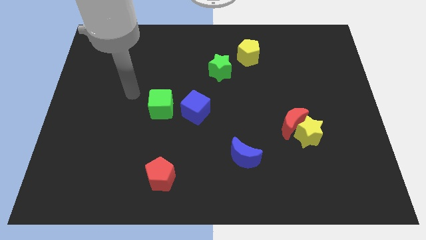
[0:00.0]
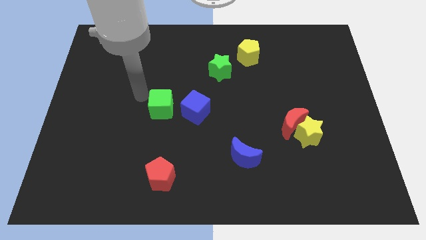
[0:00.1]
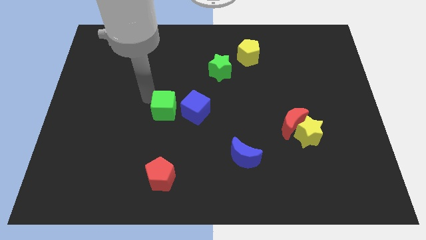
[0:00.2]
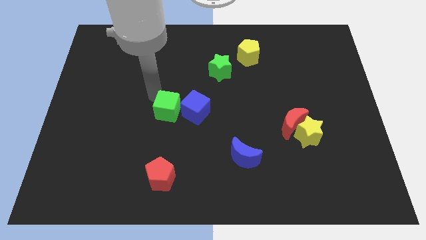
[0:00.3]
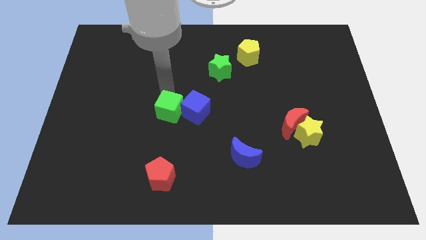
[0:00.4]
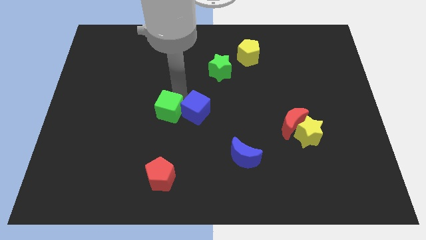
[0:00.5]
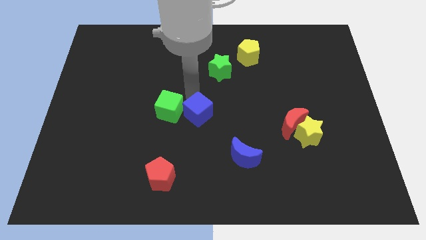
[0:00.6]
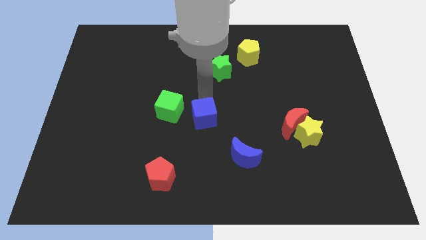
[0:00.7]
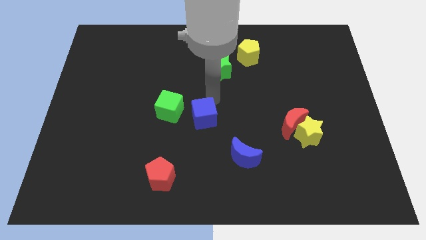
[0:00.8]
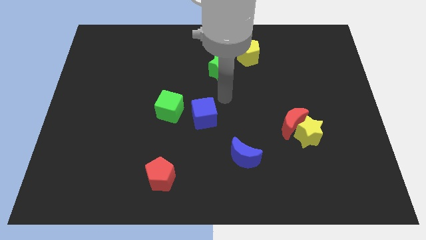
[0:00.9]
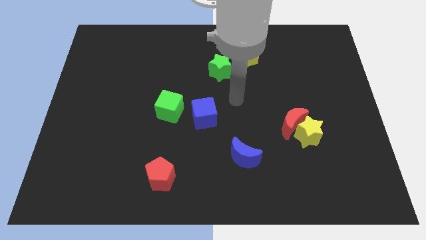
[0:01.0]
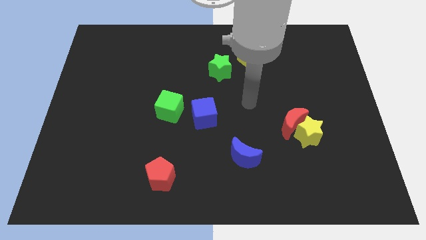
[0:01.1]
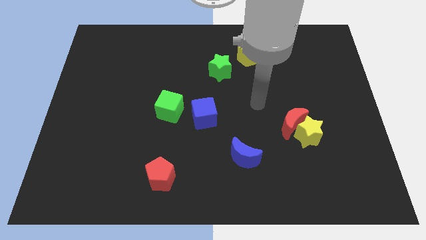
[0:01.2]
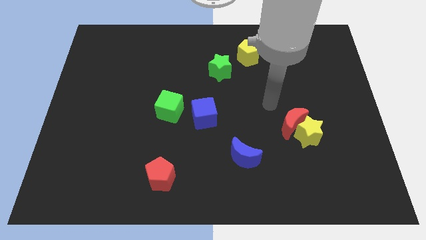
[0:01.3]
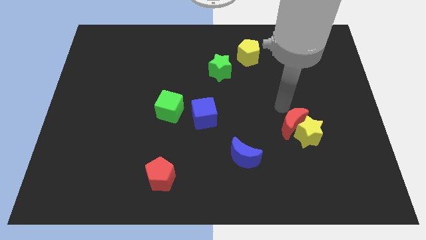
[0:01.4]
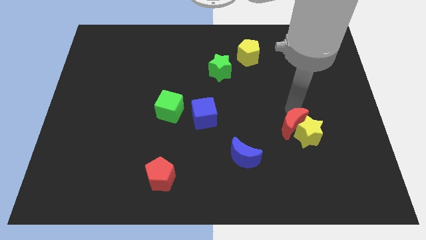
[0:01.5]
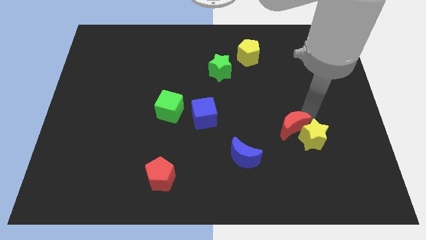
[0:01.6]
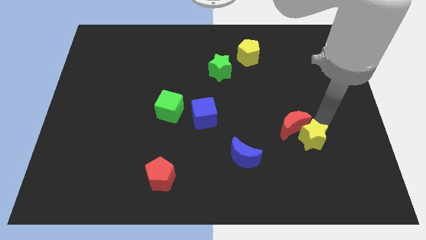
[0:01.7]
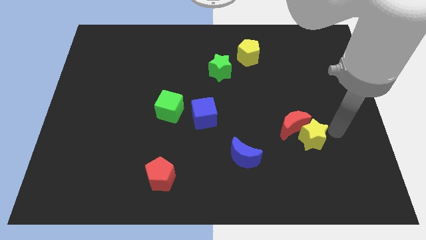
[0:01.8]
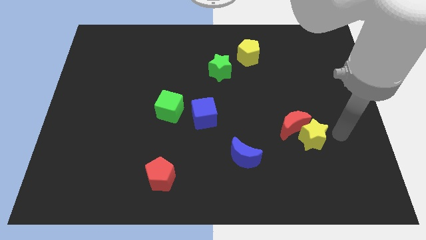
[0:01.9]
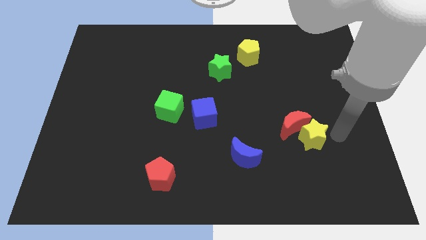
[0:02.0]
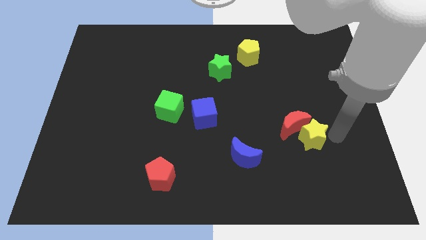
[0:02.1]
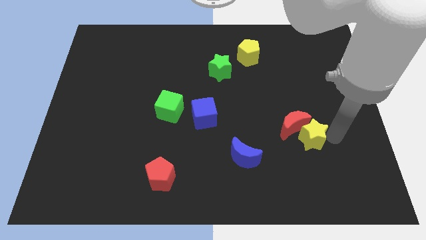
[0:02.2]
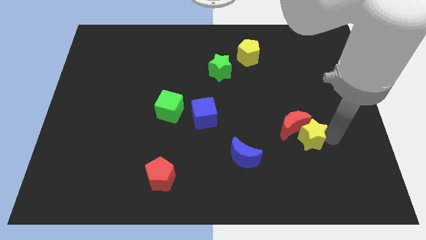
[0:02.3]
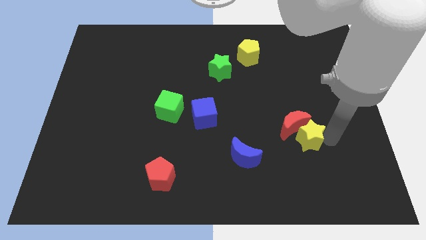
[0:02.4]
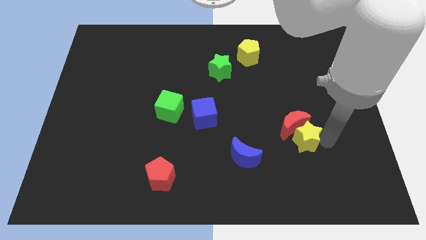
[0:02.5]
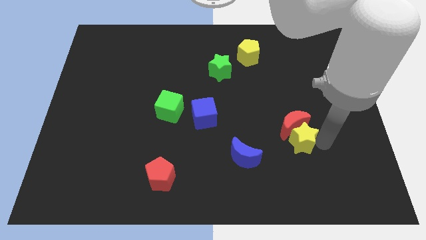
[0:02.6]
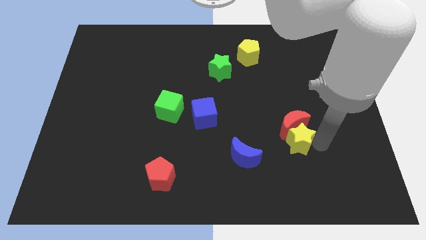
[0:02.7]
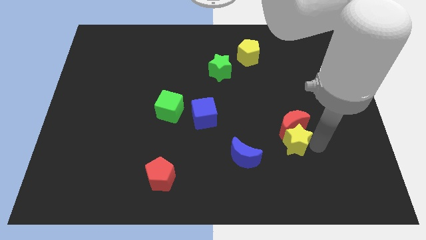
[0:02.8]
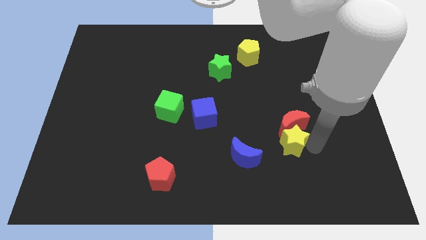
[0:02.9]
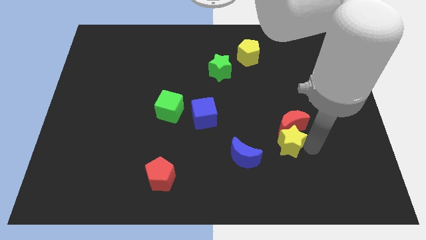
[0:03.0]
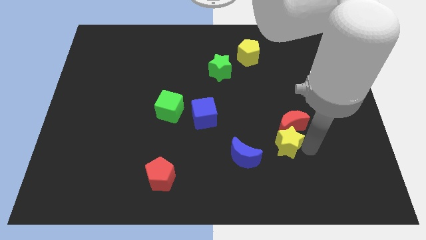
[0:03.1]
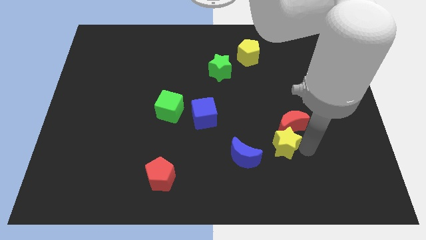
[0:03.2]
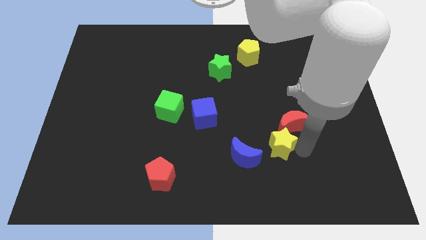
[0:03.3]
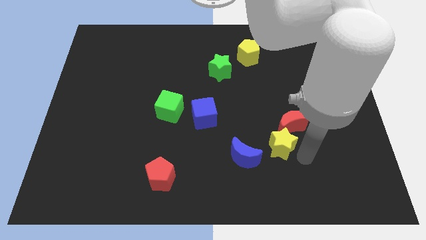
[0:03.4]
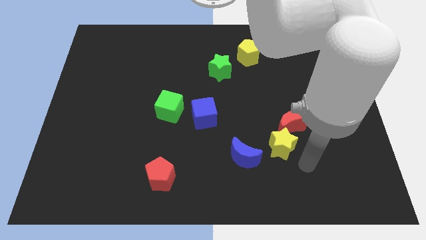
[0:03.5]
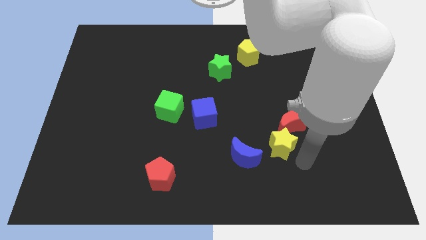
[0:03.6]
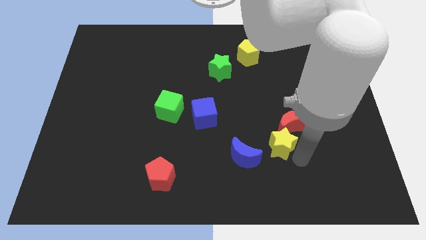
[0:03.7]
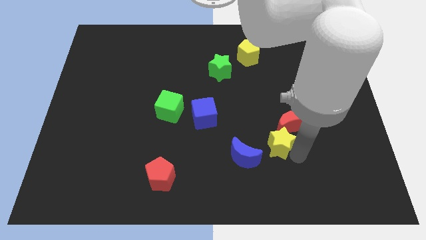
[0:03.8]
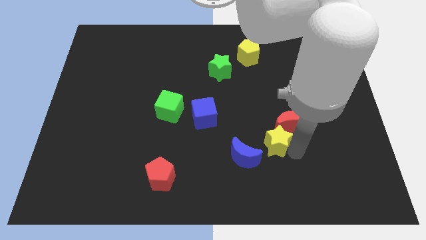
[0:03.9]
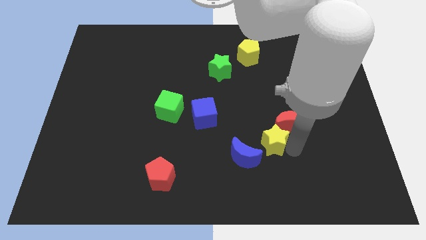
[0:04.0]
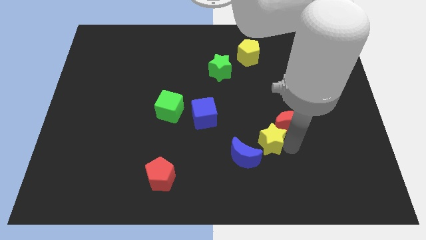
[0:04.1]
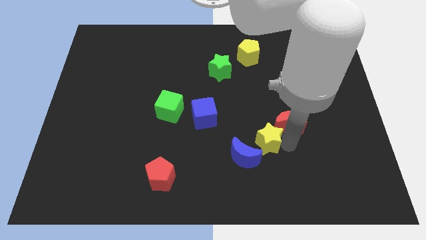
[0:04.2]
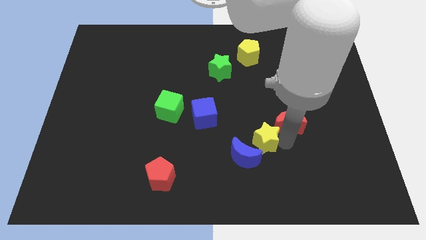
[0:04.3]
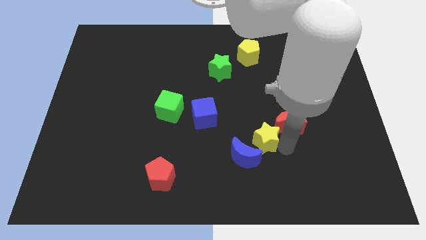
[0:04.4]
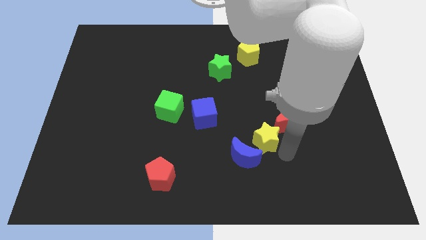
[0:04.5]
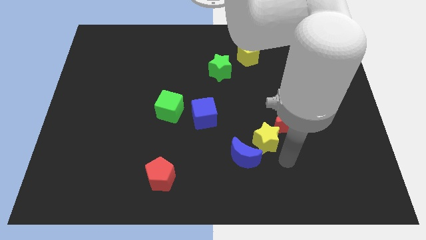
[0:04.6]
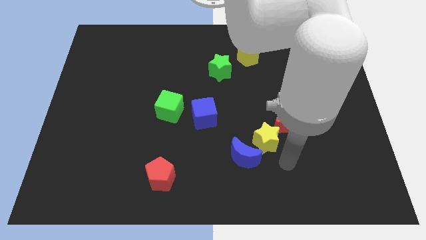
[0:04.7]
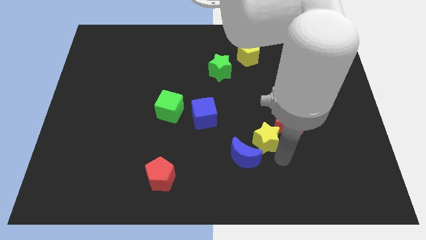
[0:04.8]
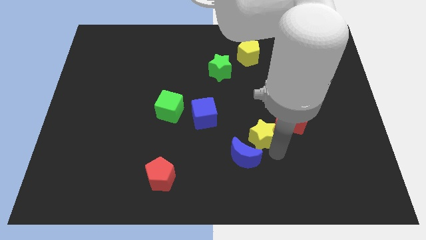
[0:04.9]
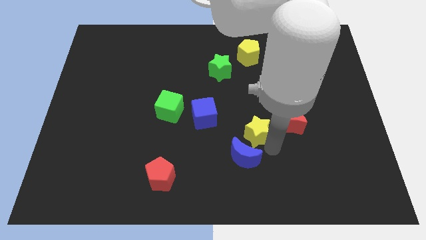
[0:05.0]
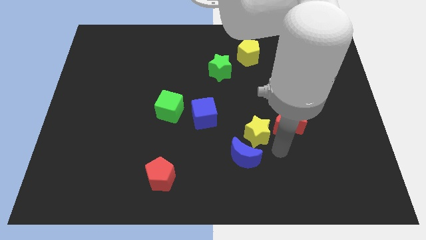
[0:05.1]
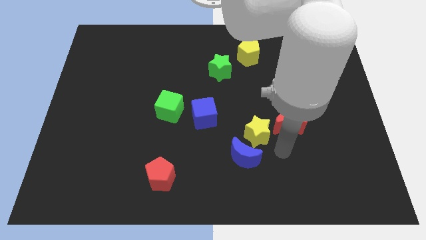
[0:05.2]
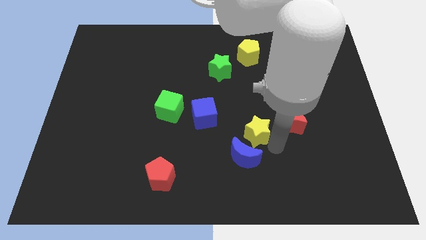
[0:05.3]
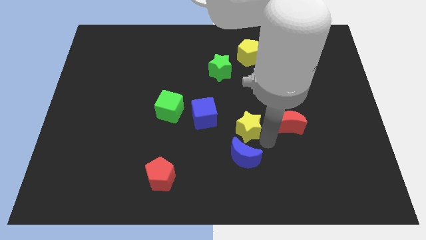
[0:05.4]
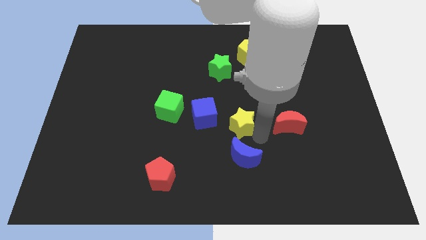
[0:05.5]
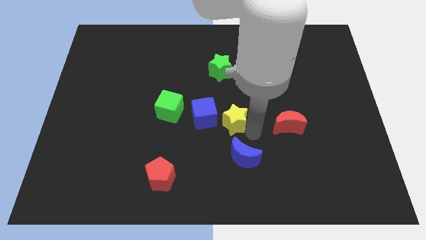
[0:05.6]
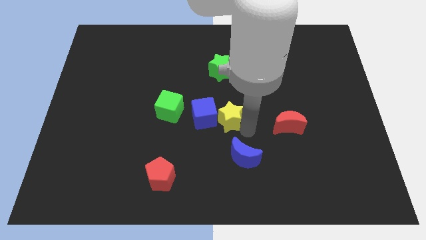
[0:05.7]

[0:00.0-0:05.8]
put the yellow star close to the blue cube
